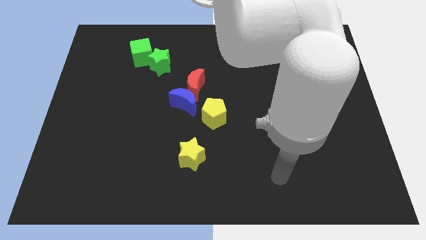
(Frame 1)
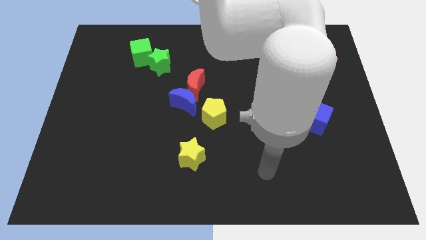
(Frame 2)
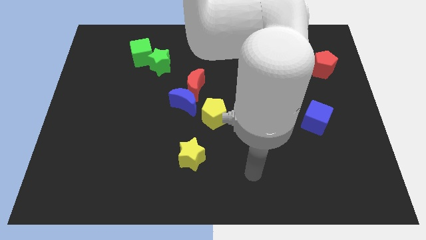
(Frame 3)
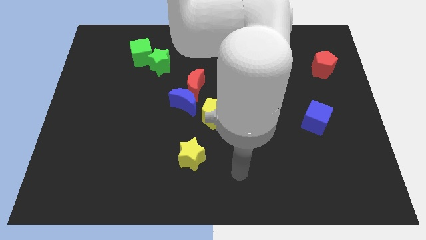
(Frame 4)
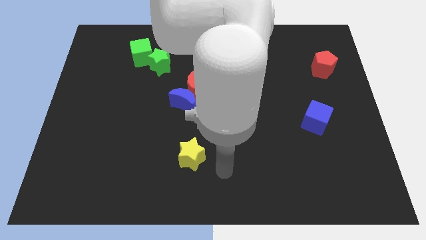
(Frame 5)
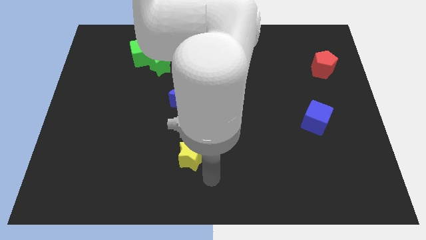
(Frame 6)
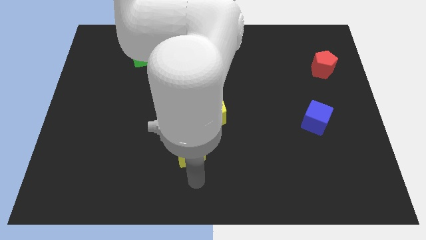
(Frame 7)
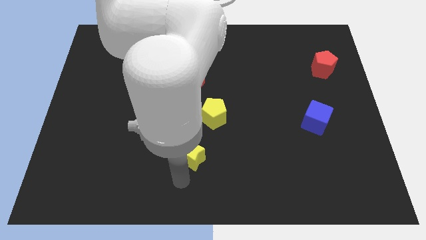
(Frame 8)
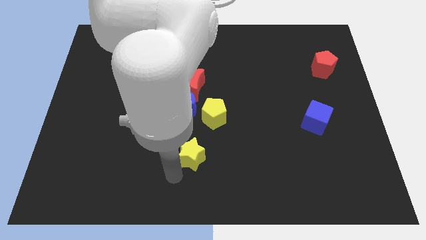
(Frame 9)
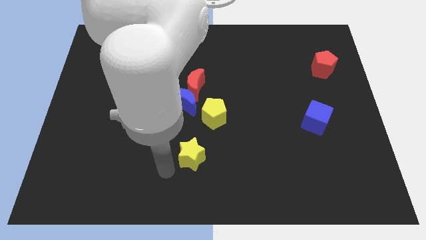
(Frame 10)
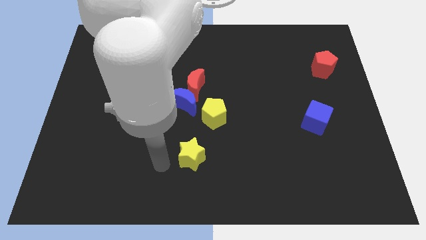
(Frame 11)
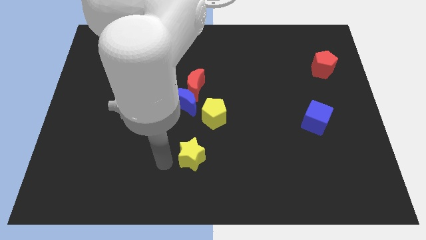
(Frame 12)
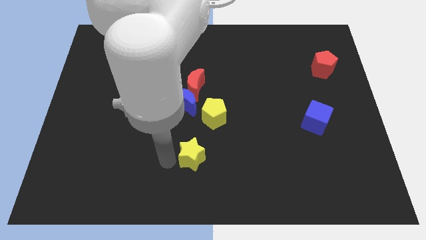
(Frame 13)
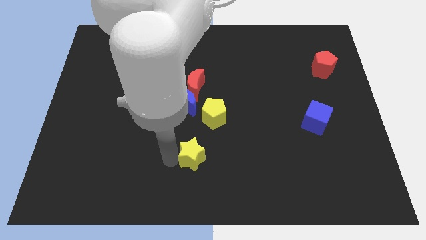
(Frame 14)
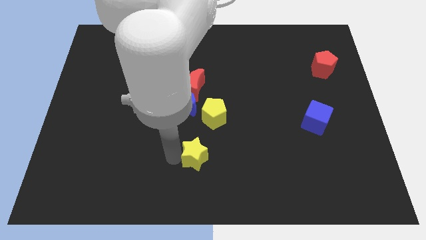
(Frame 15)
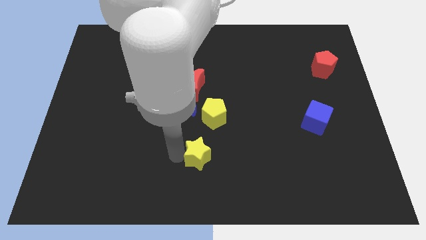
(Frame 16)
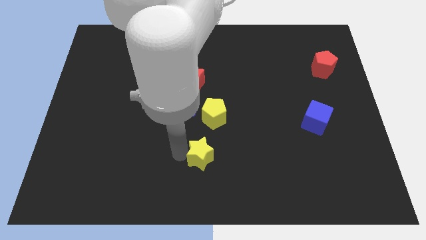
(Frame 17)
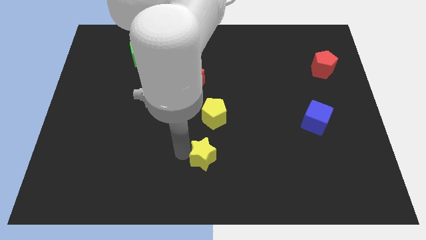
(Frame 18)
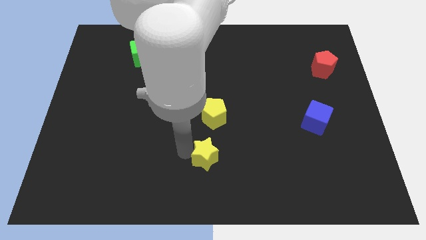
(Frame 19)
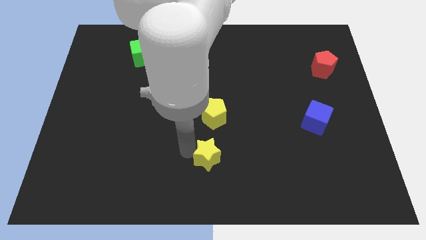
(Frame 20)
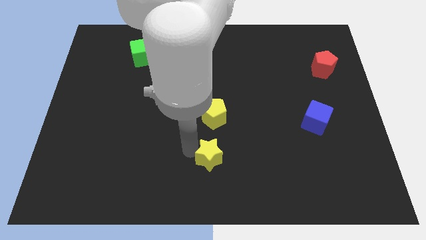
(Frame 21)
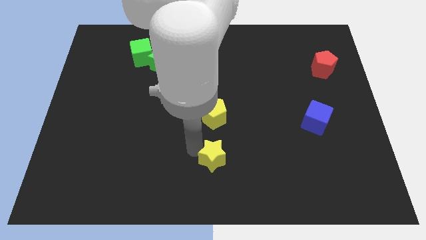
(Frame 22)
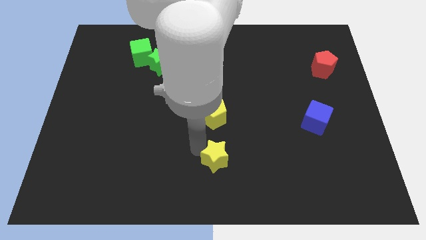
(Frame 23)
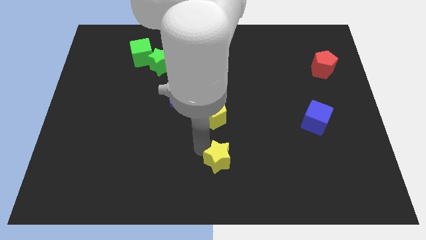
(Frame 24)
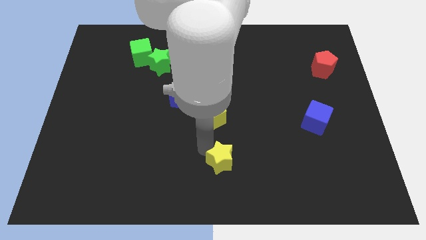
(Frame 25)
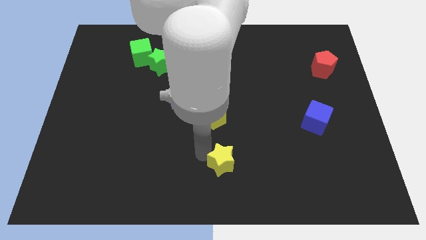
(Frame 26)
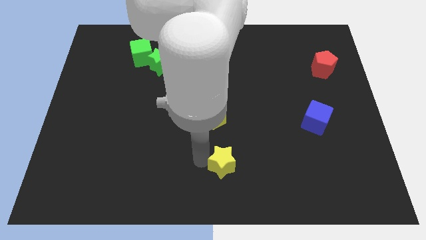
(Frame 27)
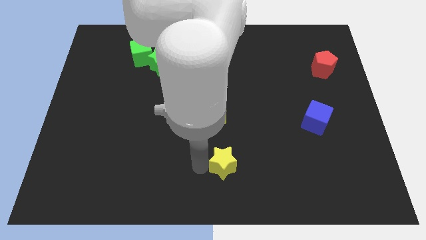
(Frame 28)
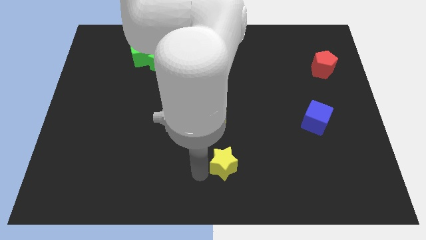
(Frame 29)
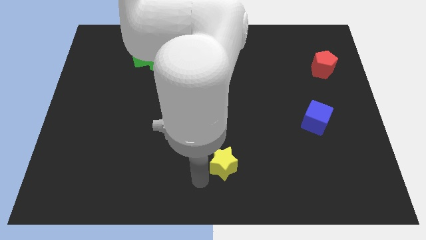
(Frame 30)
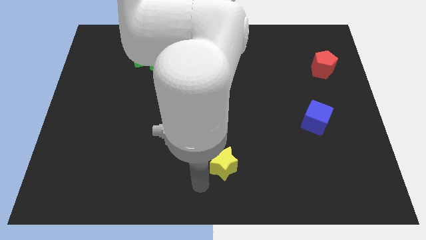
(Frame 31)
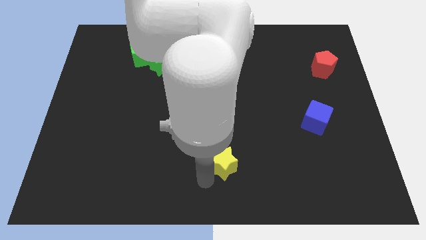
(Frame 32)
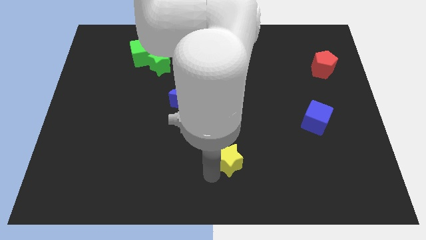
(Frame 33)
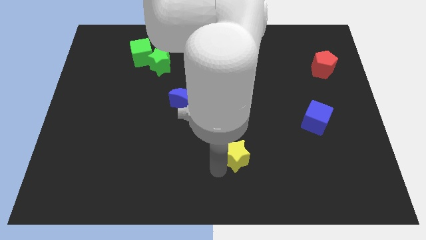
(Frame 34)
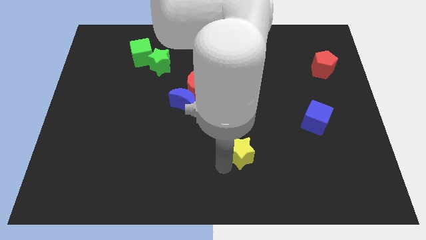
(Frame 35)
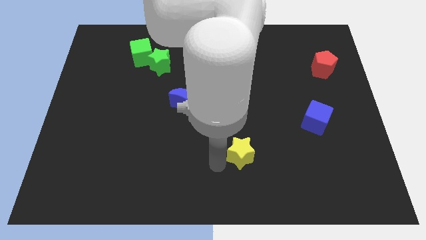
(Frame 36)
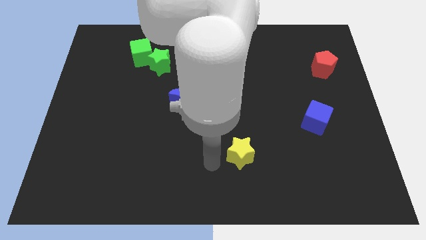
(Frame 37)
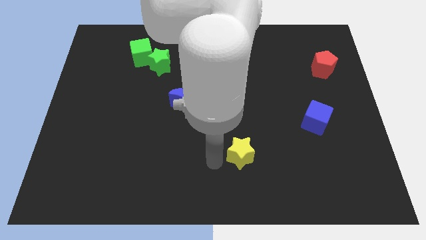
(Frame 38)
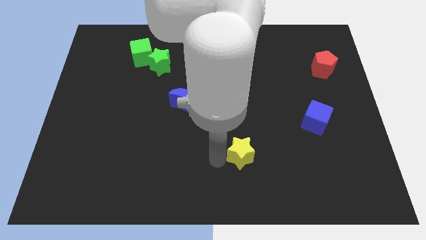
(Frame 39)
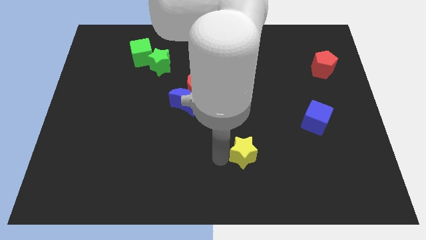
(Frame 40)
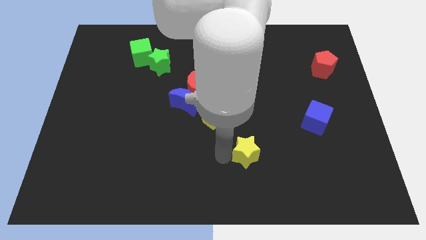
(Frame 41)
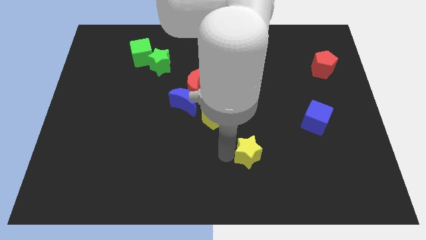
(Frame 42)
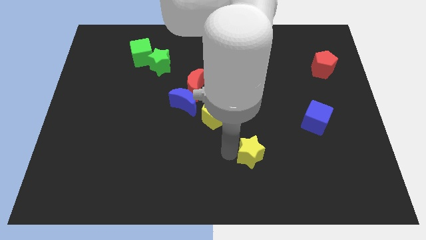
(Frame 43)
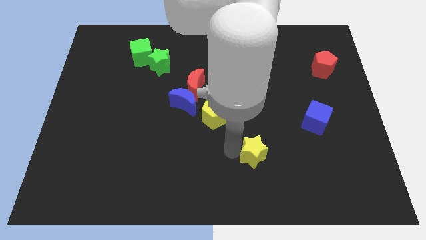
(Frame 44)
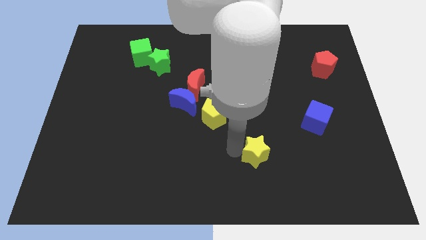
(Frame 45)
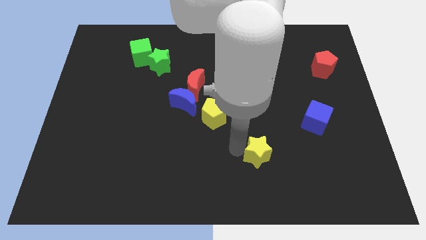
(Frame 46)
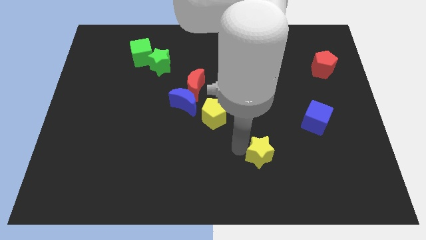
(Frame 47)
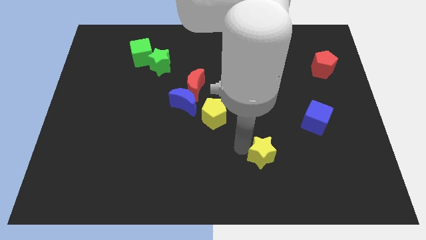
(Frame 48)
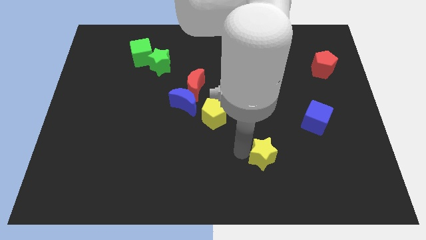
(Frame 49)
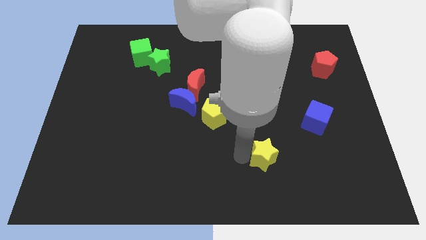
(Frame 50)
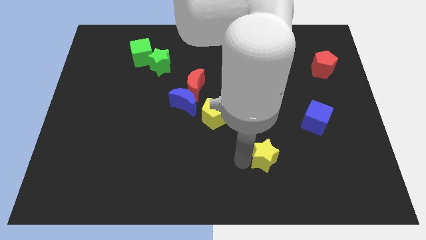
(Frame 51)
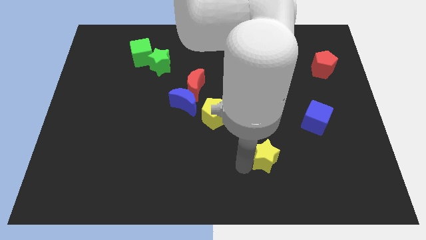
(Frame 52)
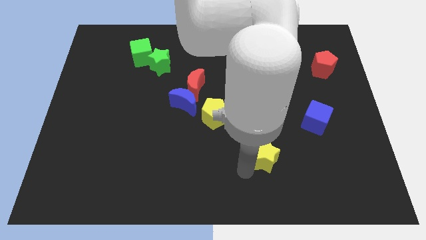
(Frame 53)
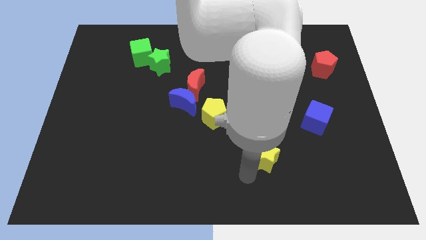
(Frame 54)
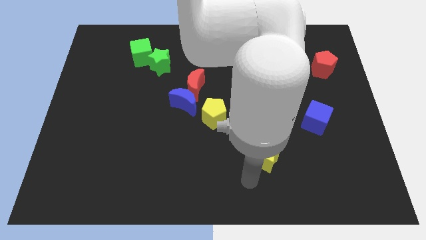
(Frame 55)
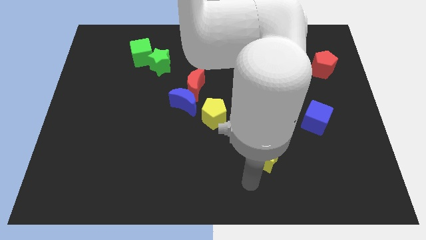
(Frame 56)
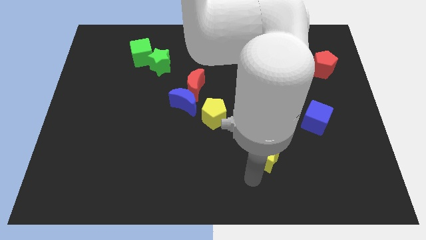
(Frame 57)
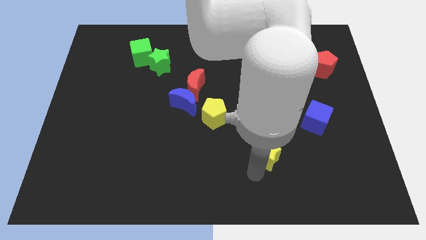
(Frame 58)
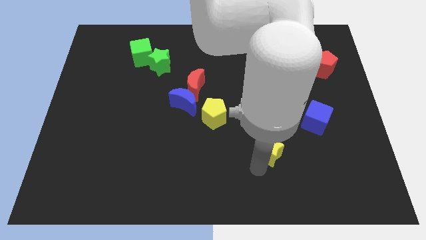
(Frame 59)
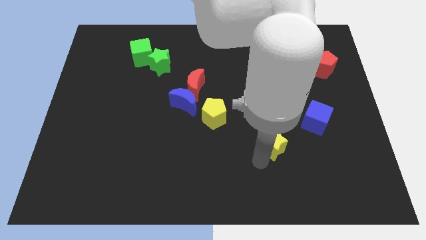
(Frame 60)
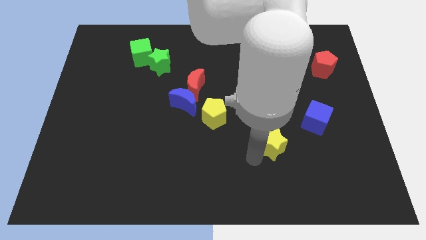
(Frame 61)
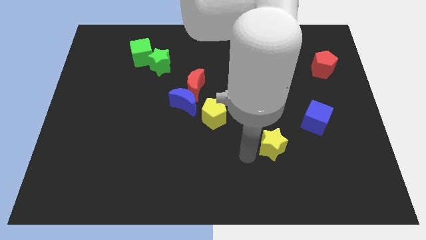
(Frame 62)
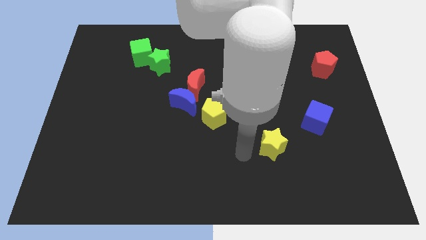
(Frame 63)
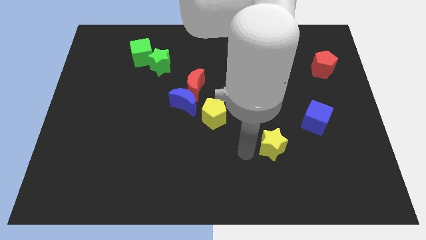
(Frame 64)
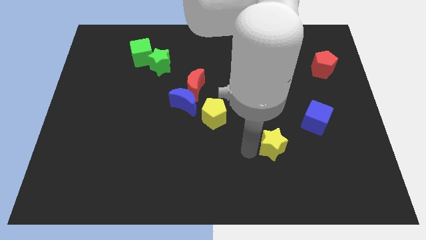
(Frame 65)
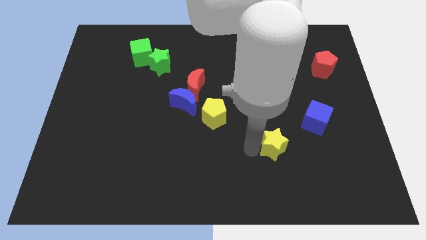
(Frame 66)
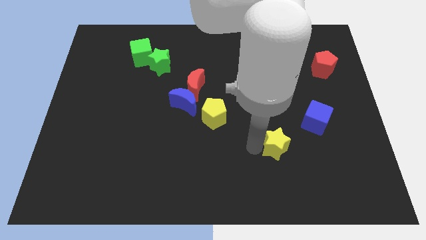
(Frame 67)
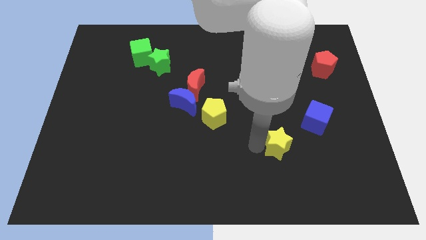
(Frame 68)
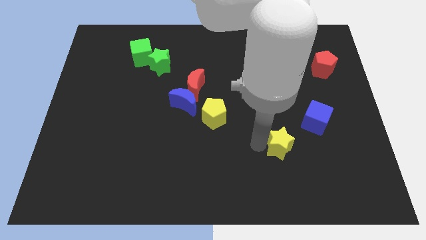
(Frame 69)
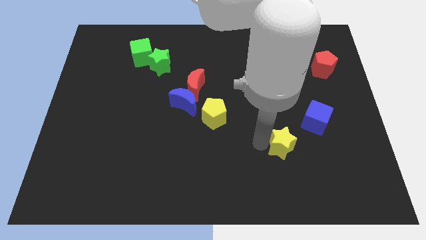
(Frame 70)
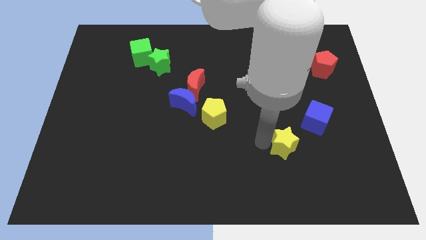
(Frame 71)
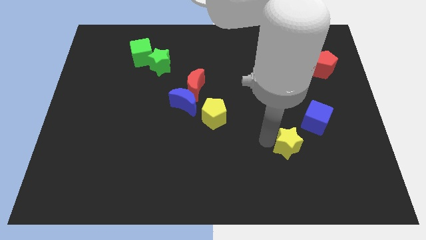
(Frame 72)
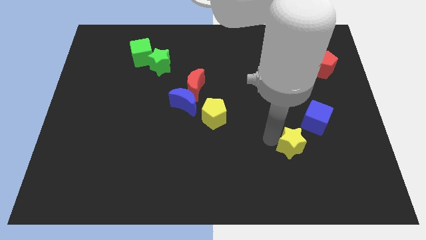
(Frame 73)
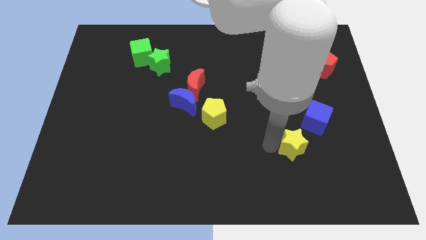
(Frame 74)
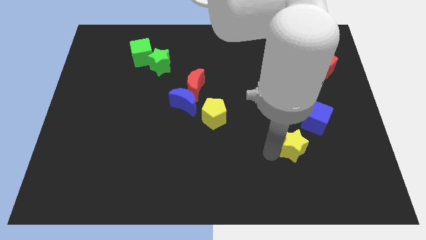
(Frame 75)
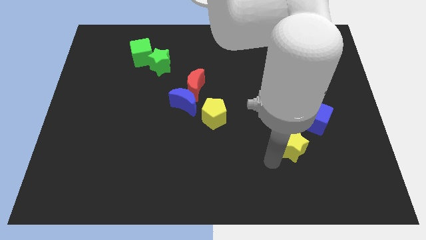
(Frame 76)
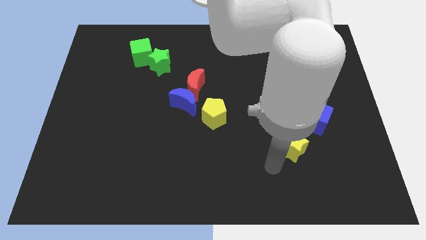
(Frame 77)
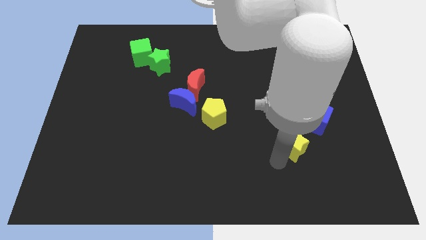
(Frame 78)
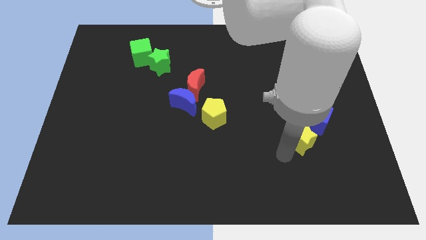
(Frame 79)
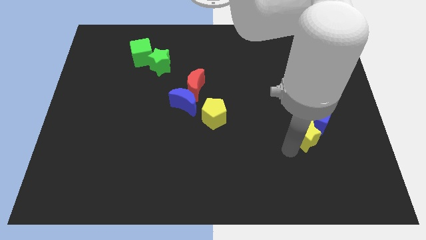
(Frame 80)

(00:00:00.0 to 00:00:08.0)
push the yellow star close to the blue cube
